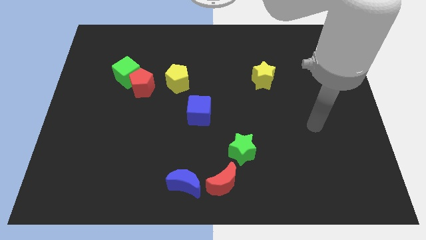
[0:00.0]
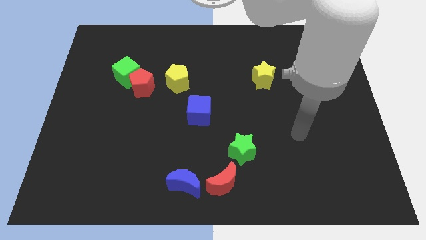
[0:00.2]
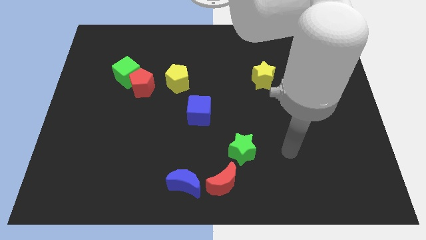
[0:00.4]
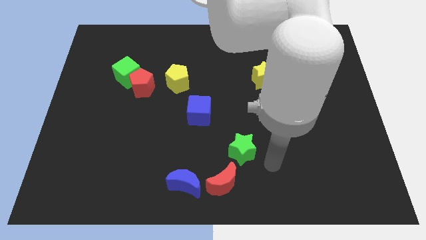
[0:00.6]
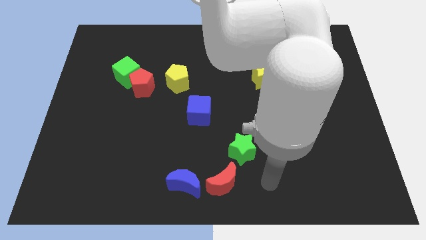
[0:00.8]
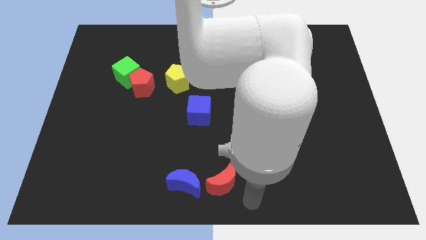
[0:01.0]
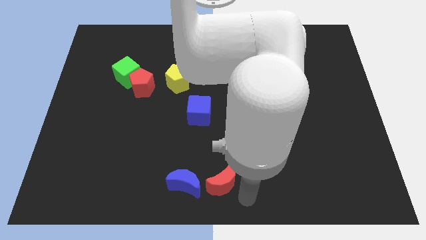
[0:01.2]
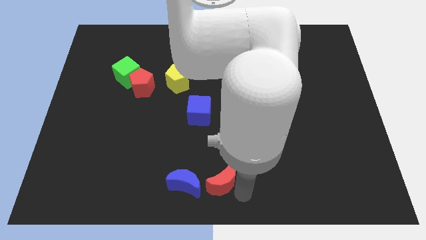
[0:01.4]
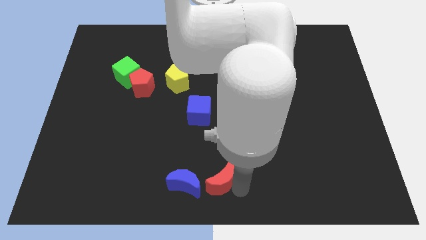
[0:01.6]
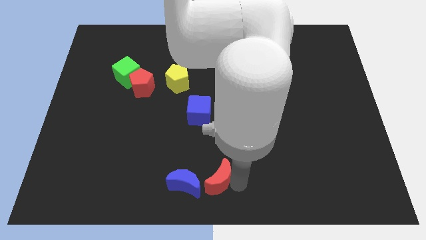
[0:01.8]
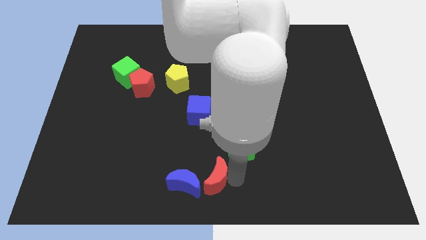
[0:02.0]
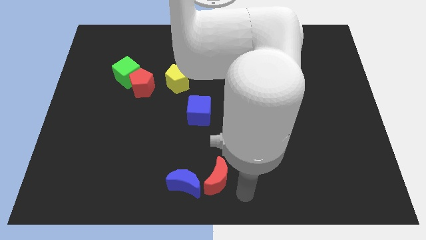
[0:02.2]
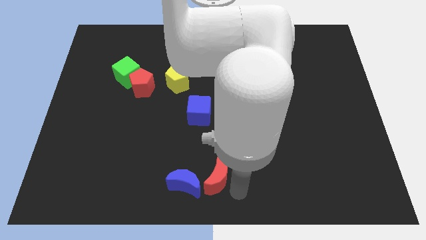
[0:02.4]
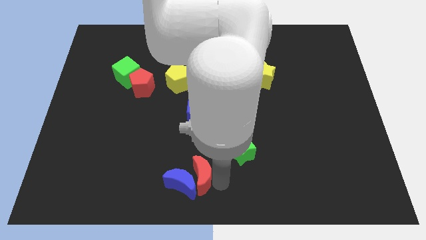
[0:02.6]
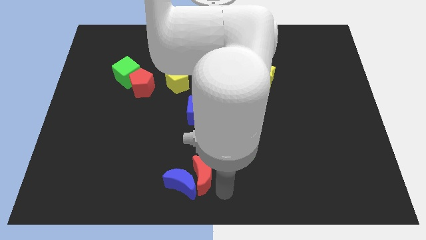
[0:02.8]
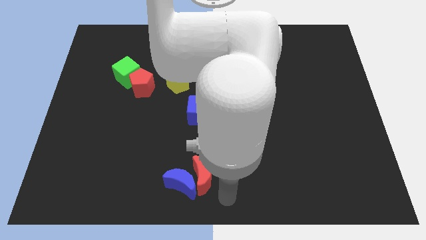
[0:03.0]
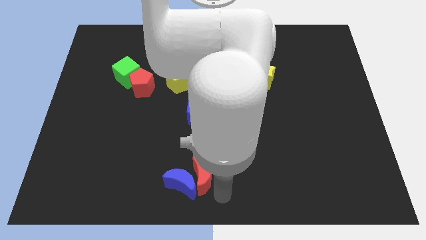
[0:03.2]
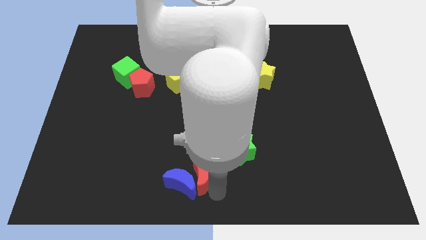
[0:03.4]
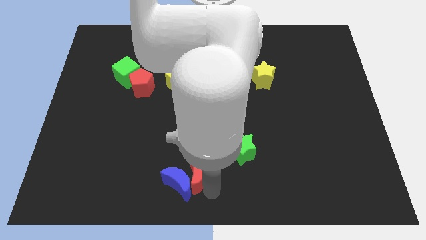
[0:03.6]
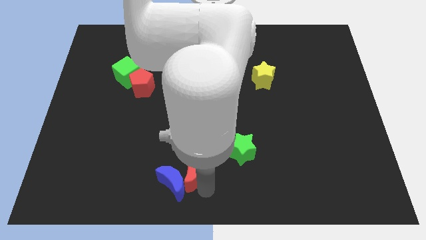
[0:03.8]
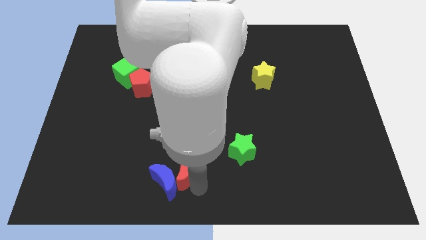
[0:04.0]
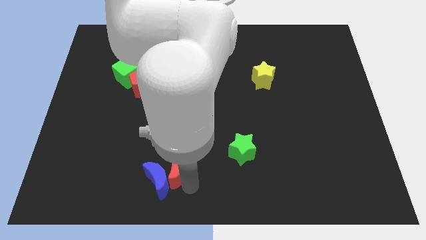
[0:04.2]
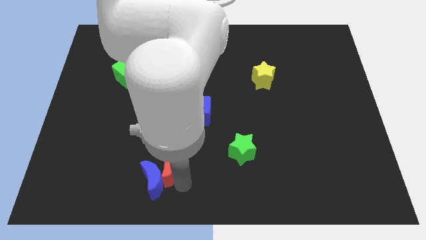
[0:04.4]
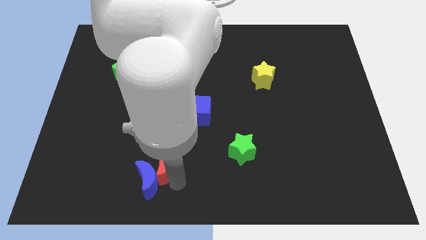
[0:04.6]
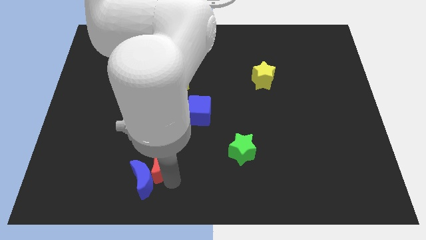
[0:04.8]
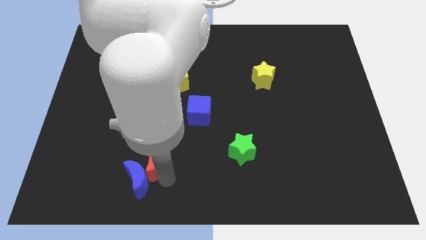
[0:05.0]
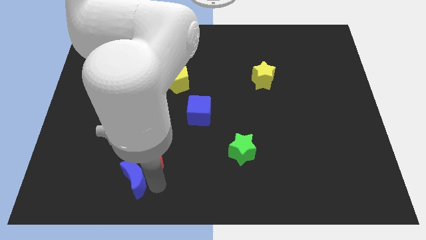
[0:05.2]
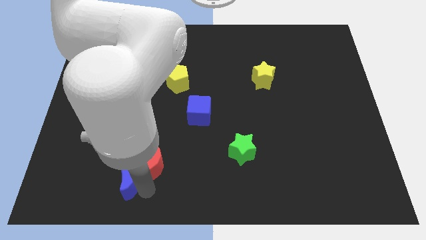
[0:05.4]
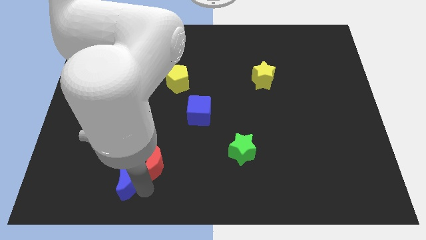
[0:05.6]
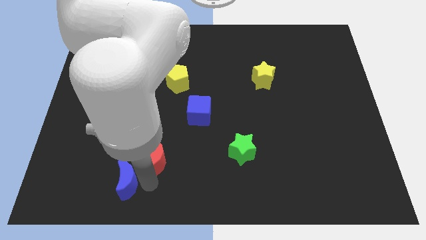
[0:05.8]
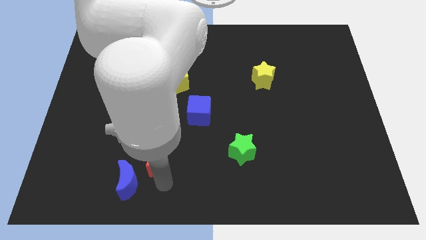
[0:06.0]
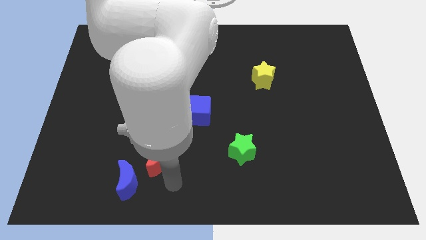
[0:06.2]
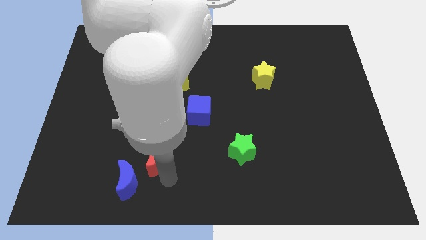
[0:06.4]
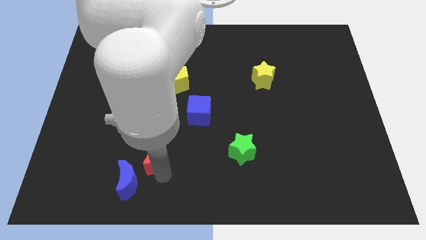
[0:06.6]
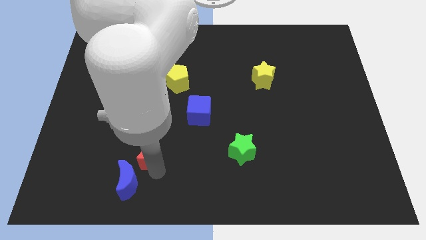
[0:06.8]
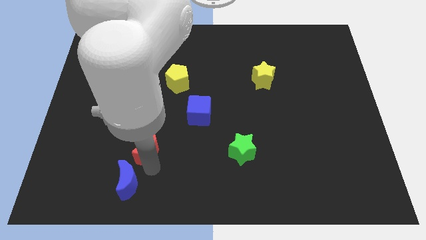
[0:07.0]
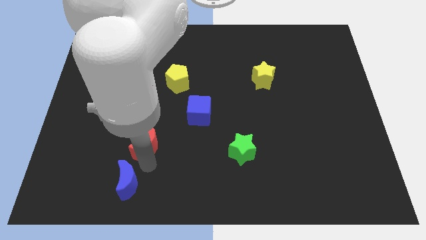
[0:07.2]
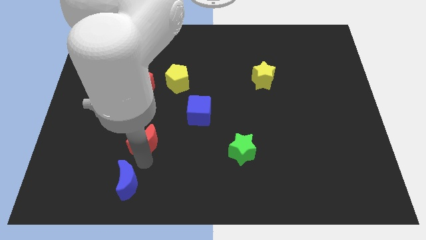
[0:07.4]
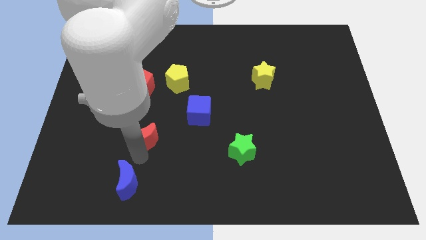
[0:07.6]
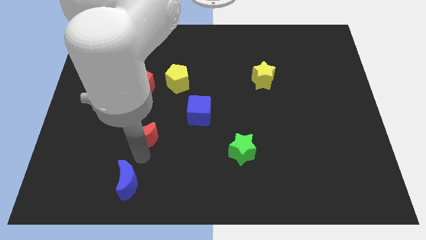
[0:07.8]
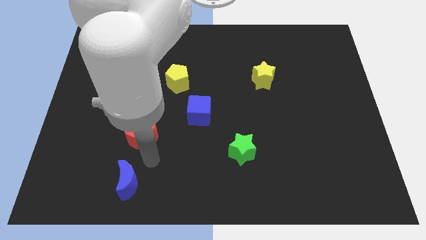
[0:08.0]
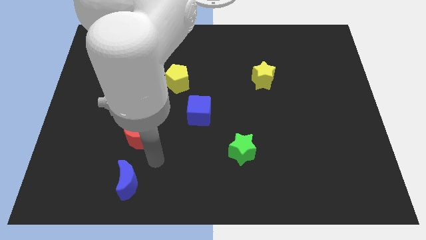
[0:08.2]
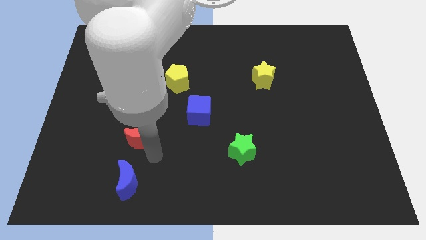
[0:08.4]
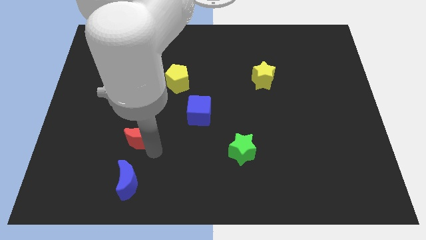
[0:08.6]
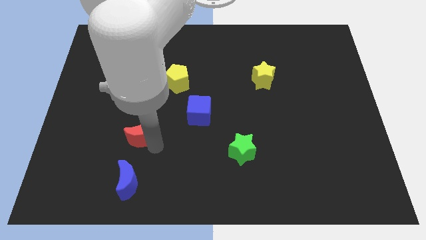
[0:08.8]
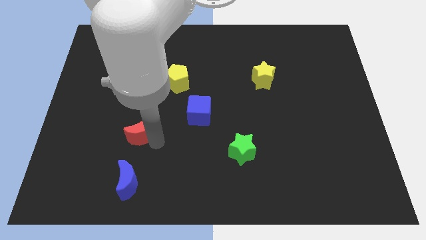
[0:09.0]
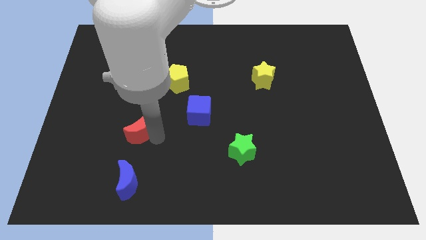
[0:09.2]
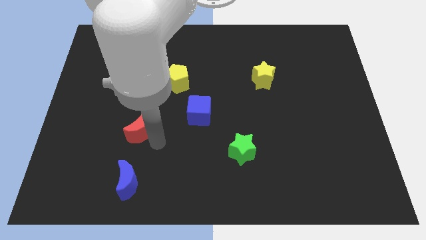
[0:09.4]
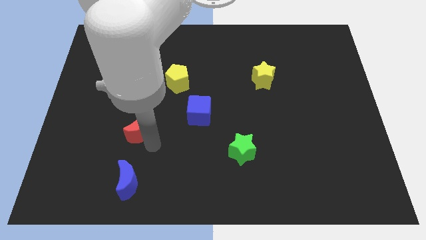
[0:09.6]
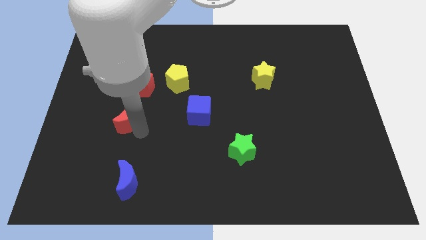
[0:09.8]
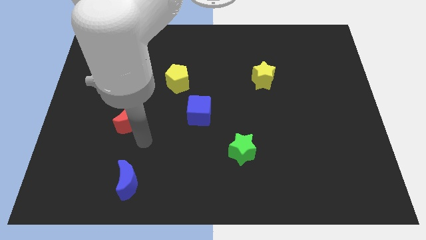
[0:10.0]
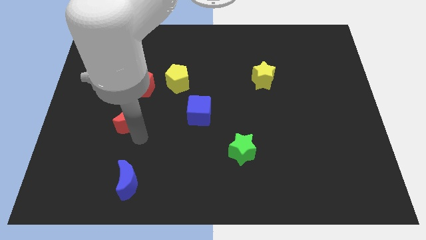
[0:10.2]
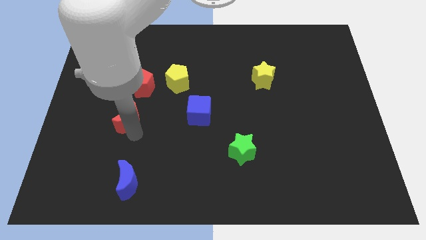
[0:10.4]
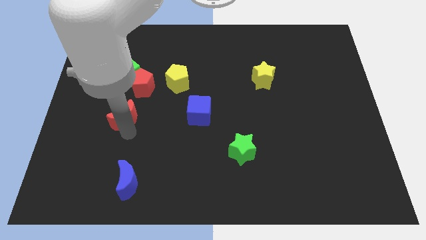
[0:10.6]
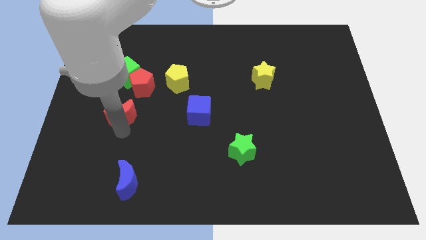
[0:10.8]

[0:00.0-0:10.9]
move the red moon to the bottom left side of the red pentagon

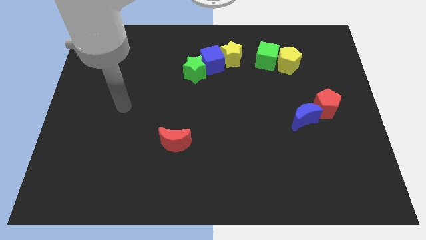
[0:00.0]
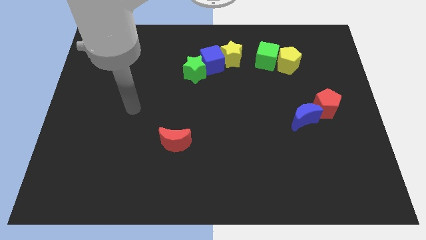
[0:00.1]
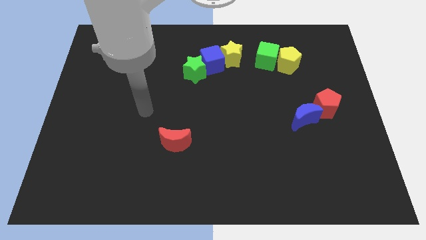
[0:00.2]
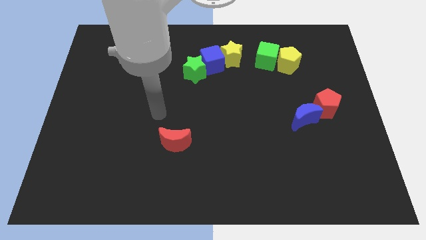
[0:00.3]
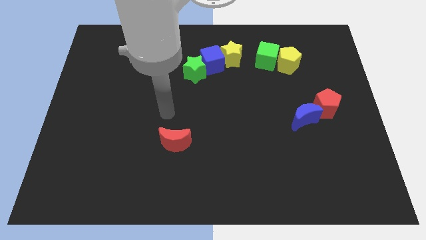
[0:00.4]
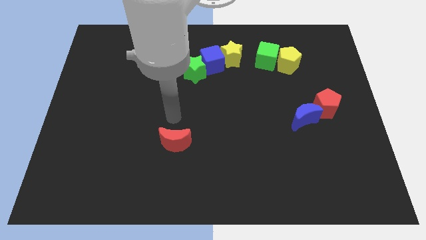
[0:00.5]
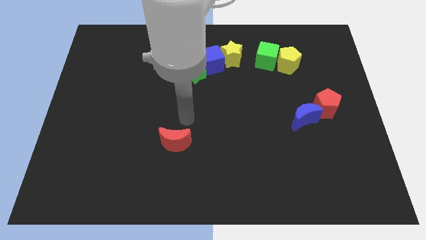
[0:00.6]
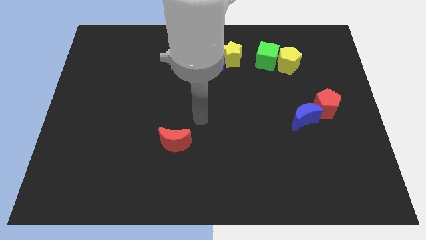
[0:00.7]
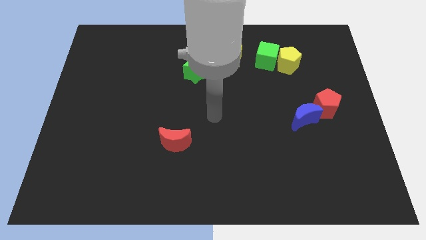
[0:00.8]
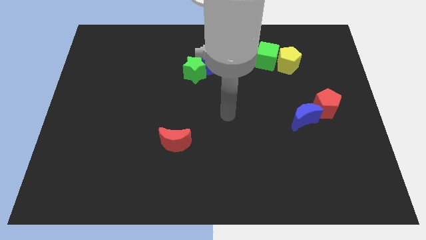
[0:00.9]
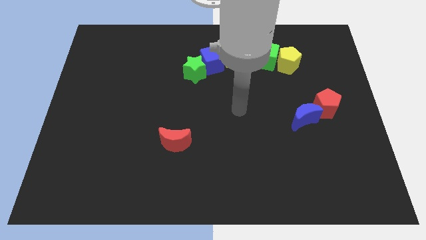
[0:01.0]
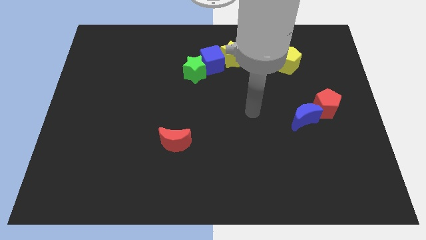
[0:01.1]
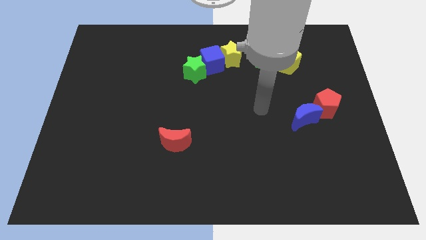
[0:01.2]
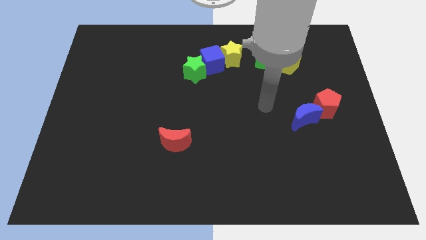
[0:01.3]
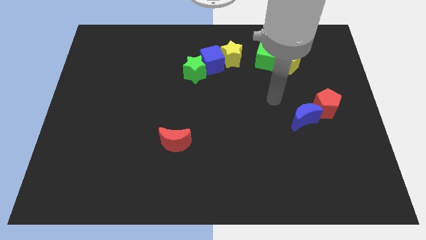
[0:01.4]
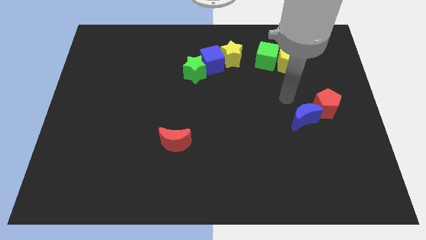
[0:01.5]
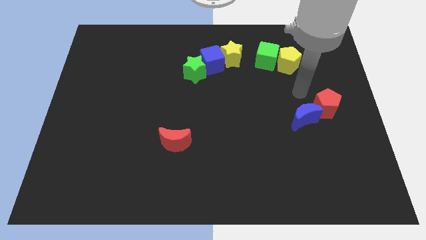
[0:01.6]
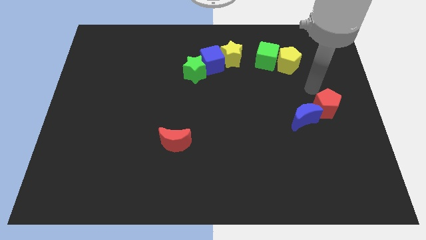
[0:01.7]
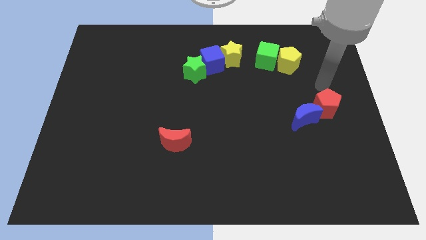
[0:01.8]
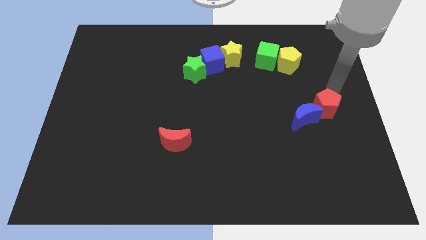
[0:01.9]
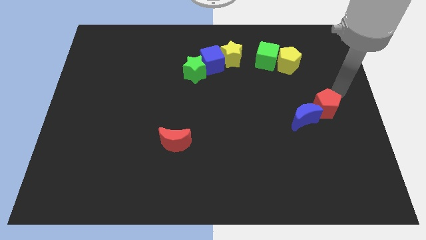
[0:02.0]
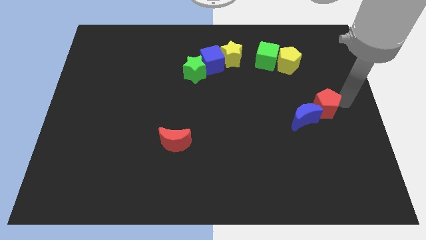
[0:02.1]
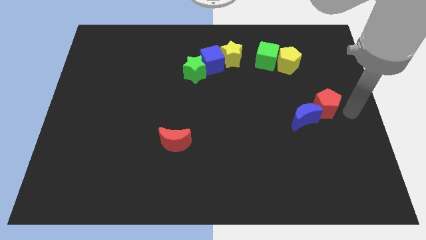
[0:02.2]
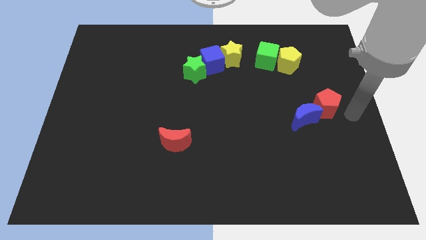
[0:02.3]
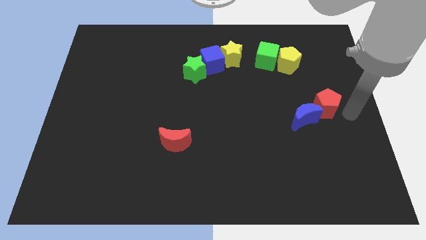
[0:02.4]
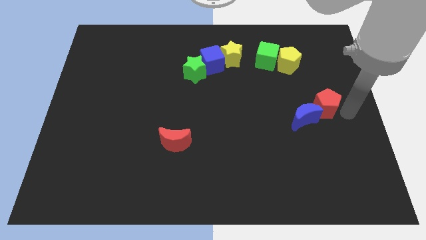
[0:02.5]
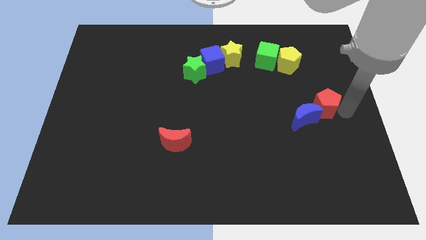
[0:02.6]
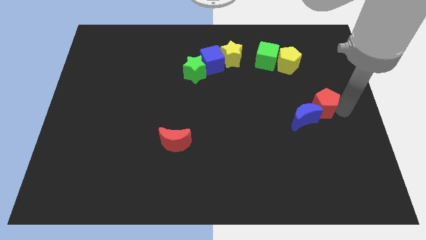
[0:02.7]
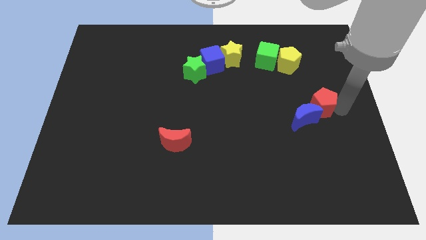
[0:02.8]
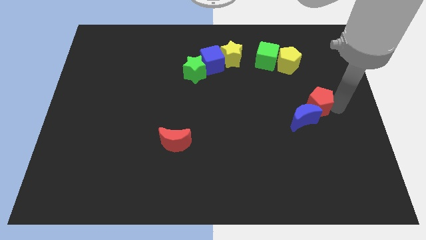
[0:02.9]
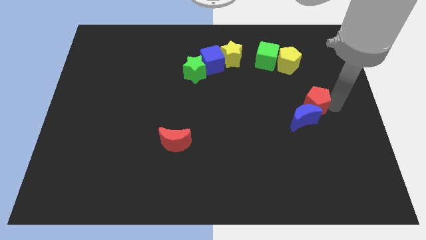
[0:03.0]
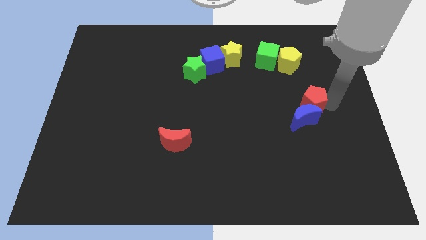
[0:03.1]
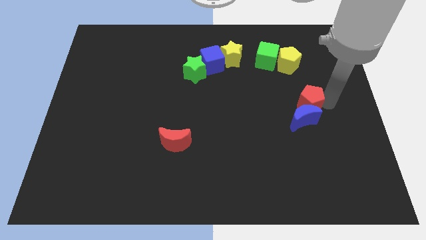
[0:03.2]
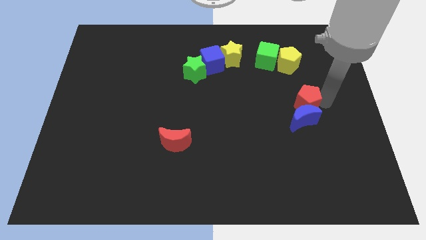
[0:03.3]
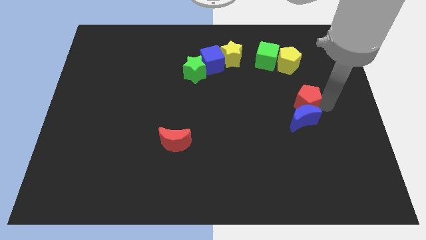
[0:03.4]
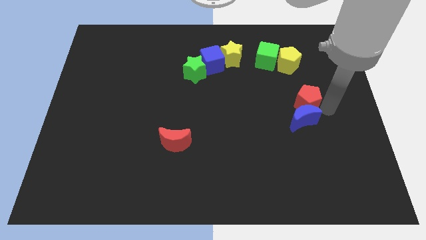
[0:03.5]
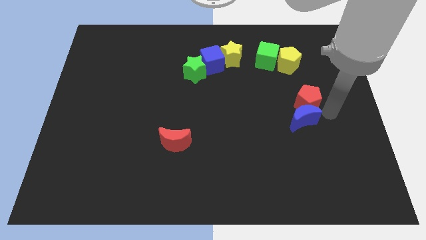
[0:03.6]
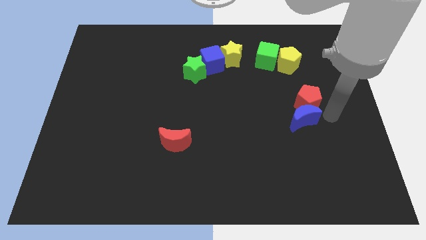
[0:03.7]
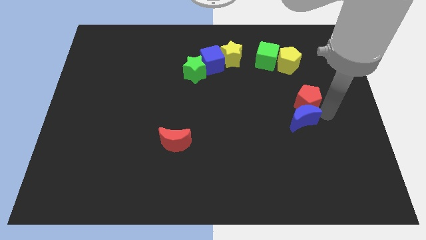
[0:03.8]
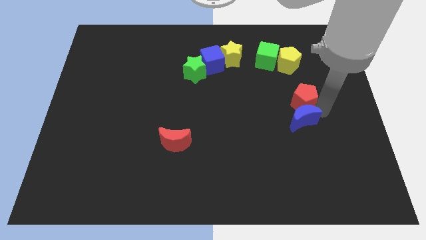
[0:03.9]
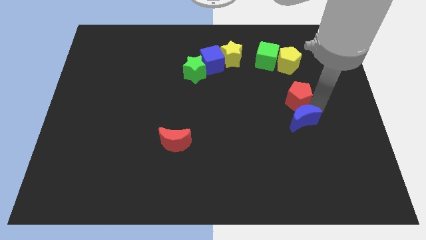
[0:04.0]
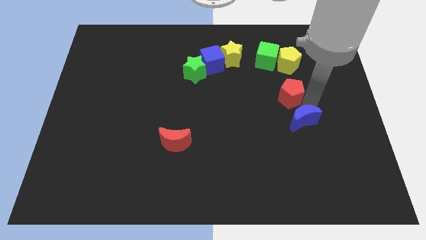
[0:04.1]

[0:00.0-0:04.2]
slide the red pentagon to the bottom side of the green cube
